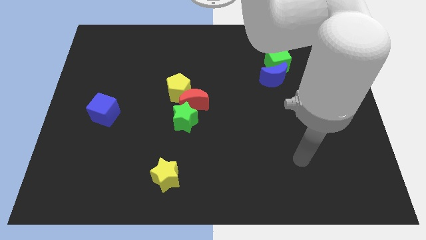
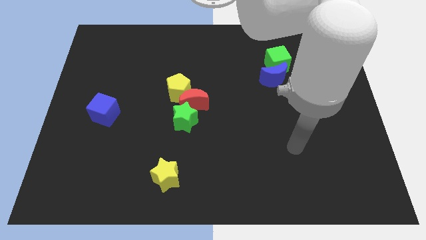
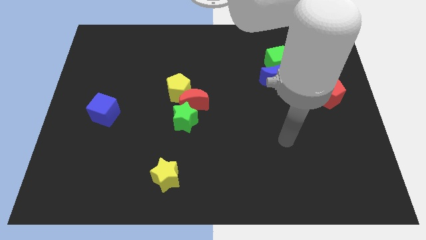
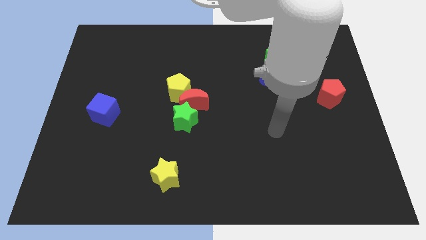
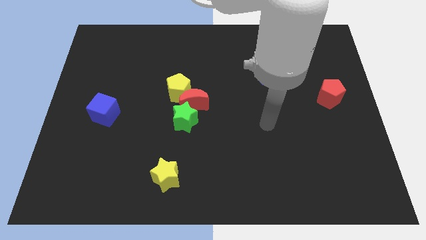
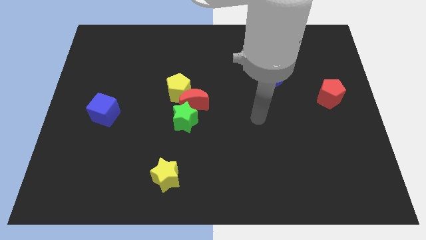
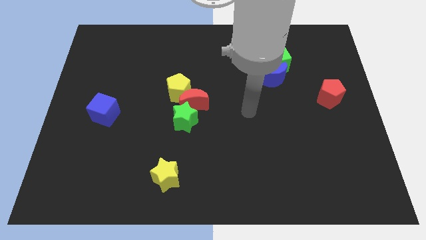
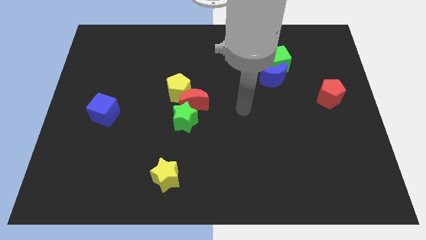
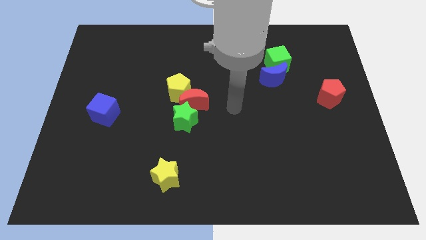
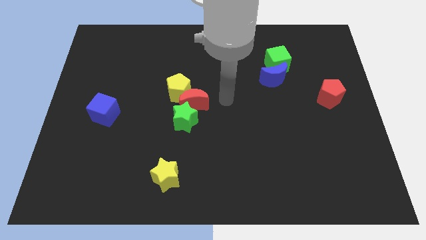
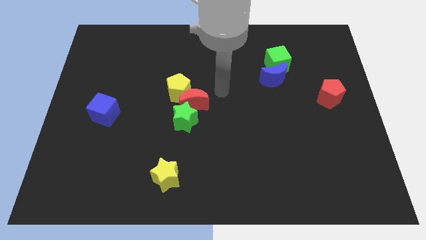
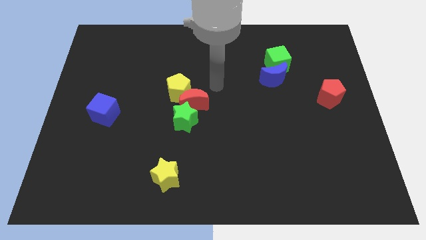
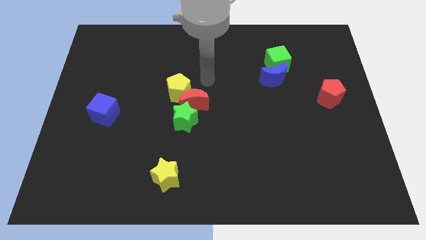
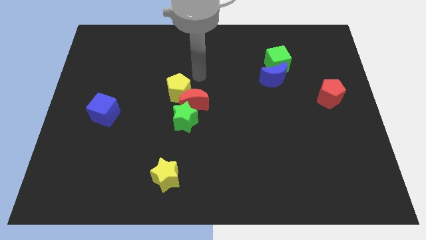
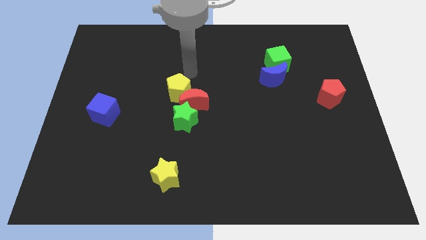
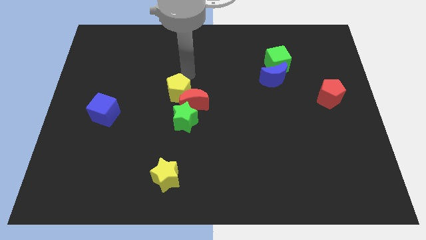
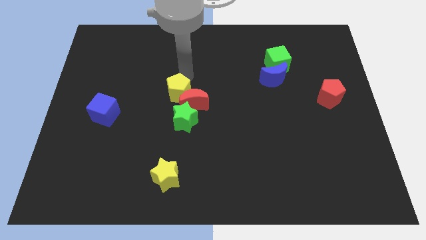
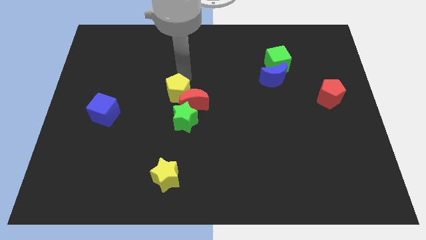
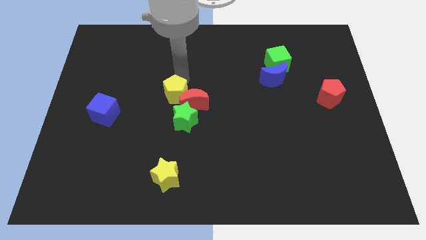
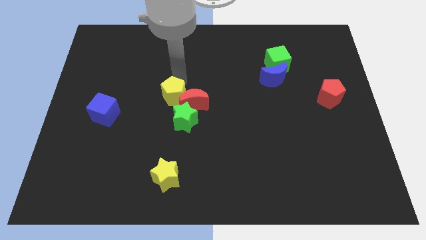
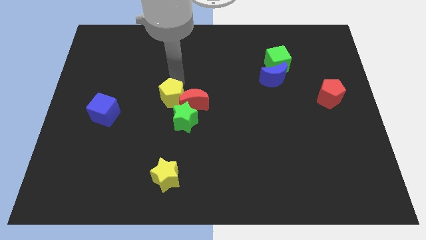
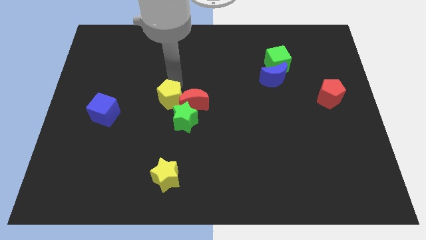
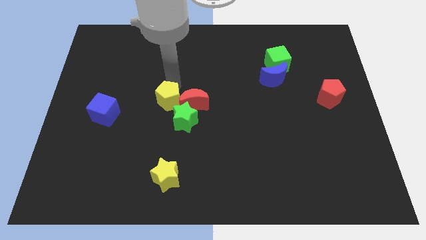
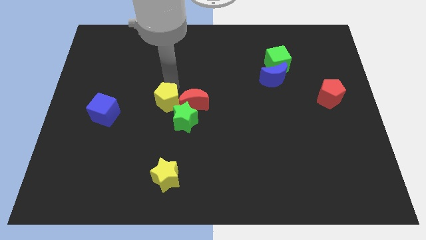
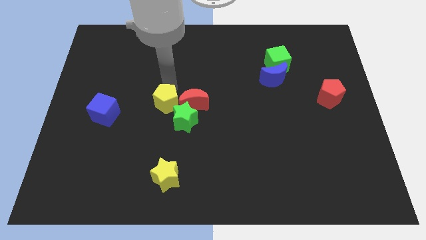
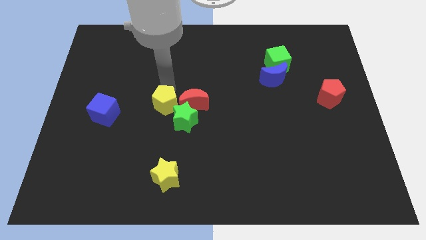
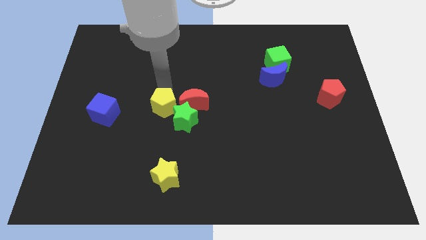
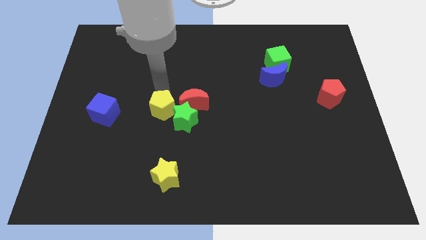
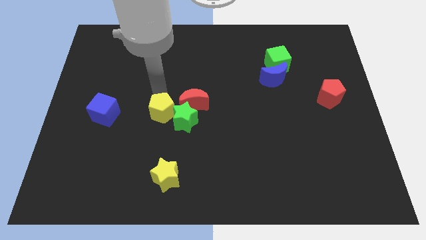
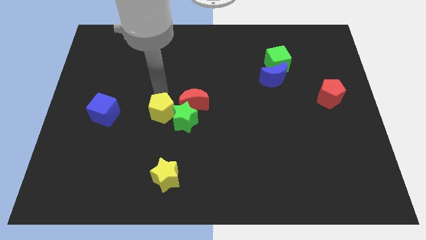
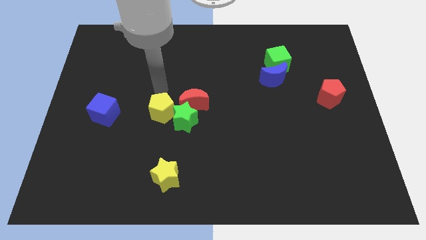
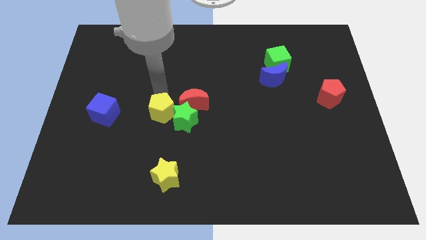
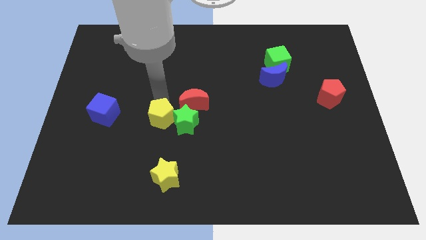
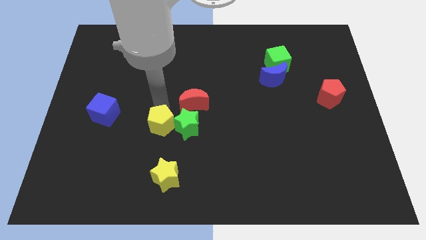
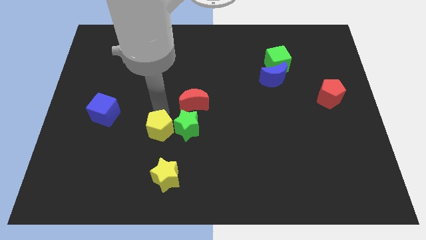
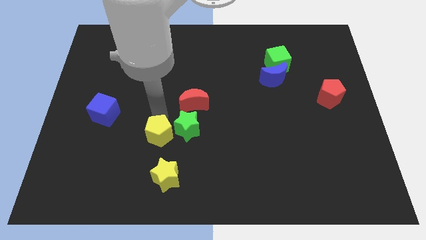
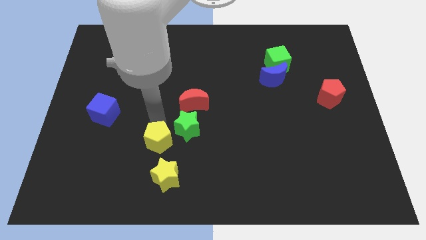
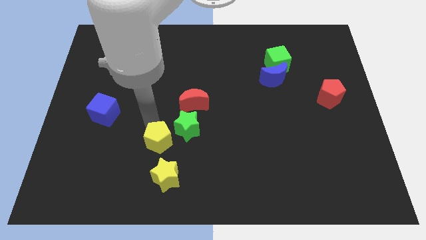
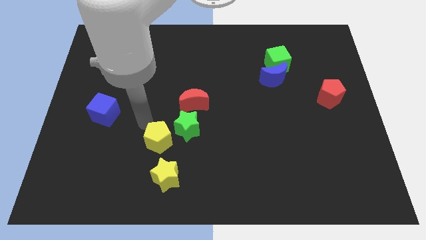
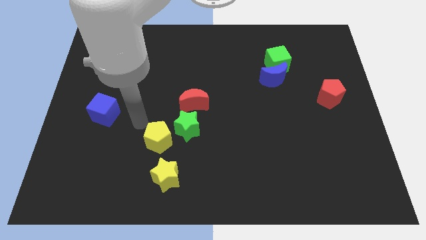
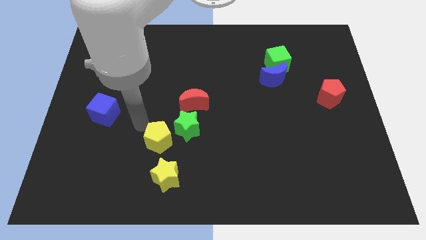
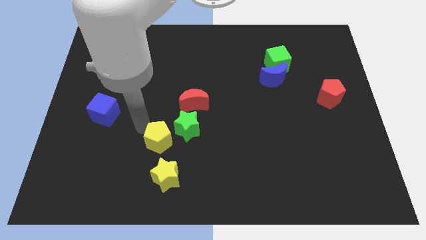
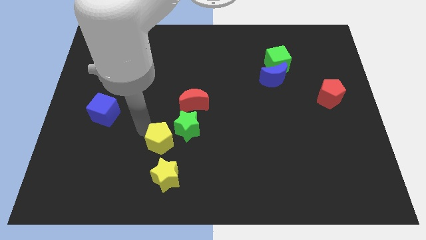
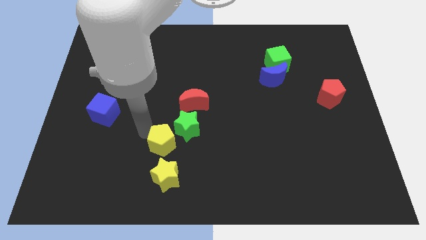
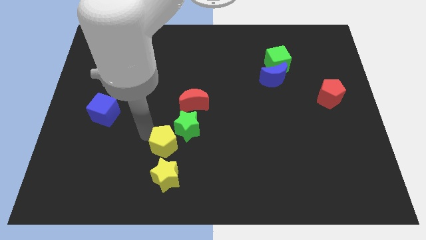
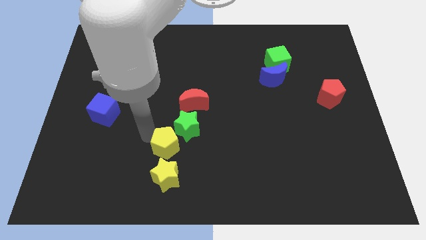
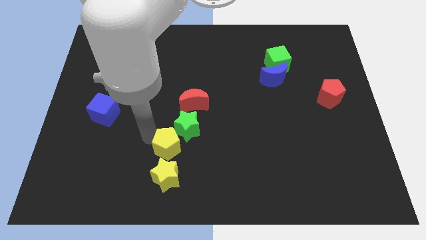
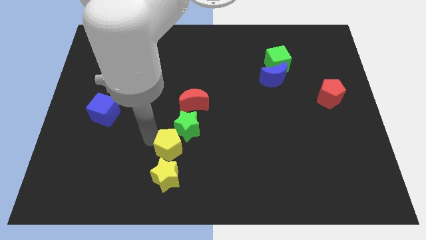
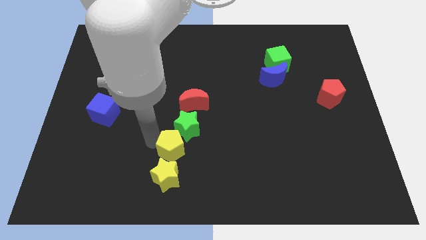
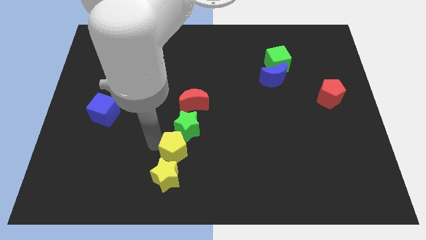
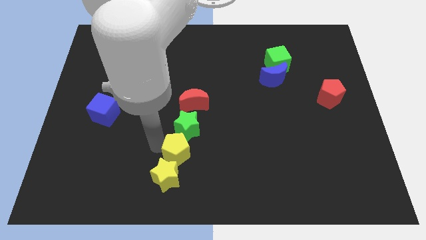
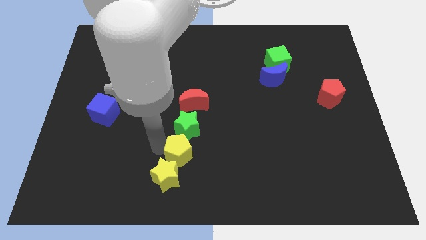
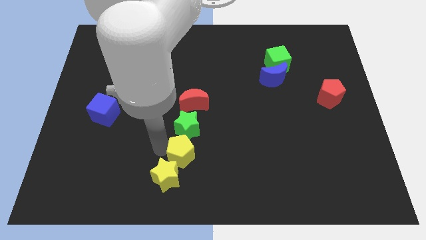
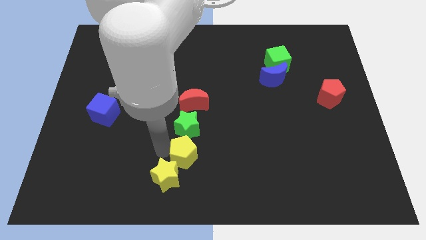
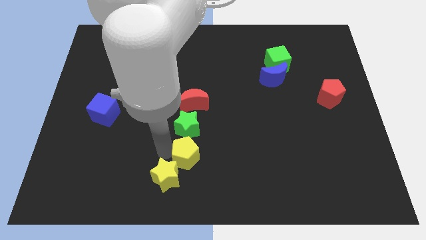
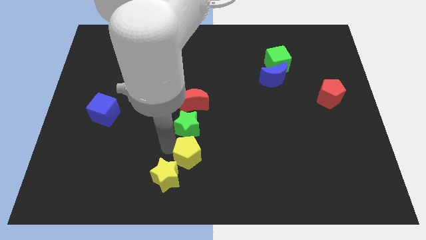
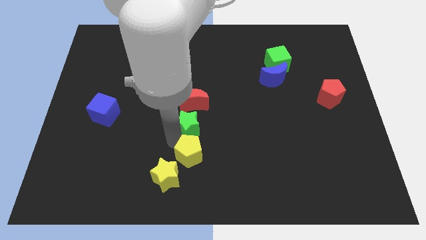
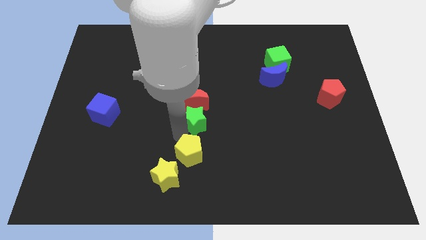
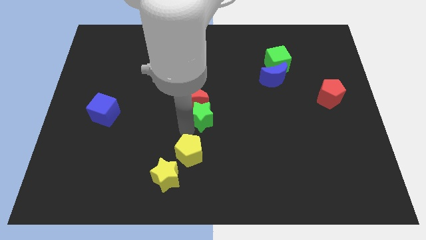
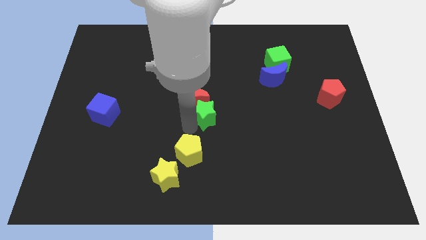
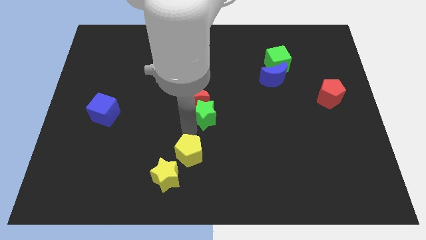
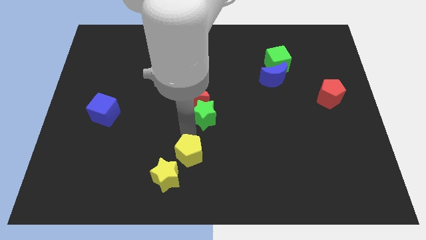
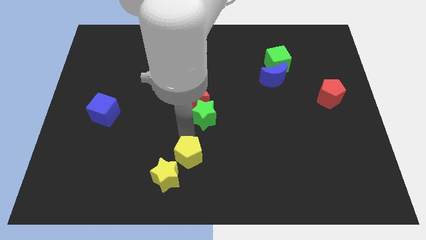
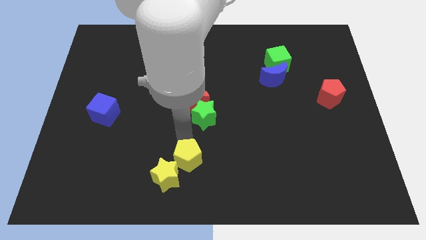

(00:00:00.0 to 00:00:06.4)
move the yellow pentagon to the bottom

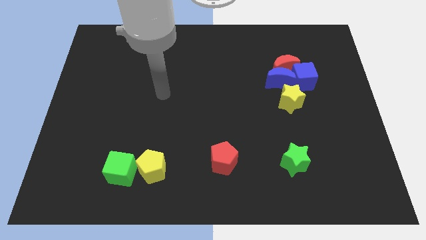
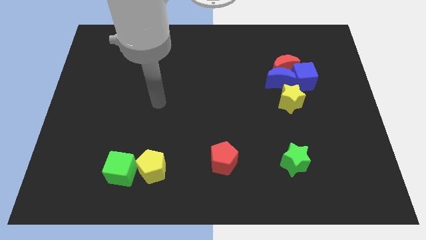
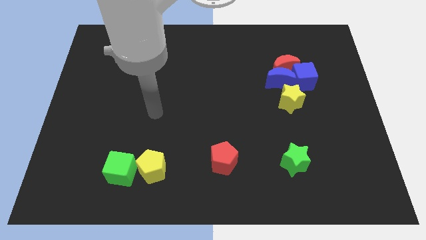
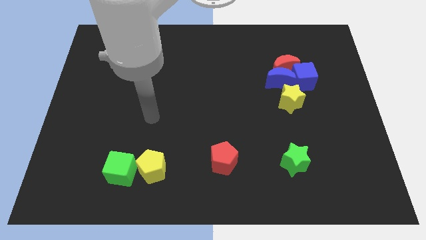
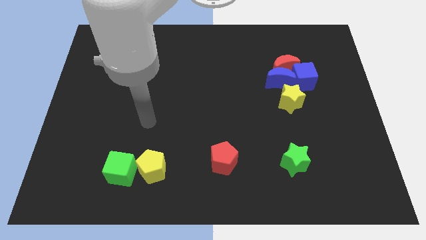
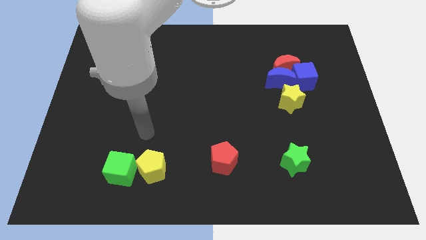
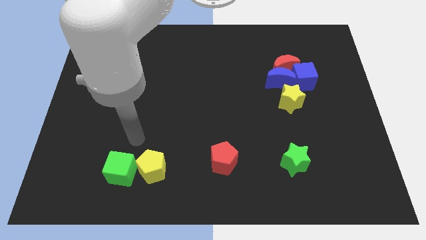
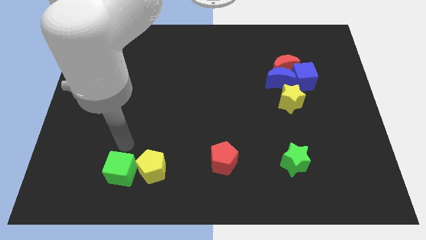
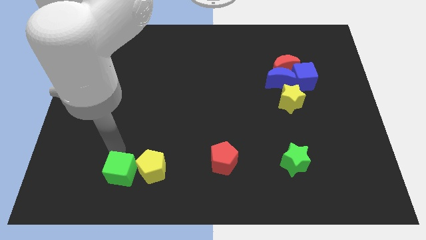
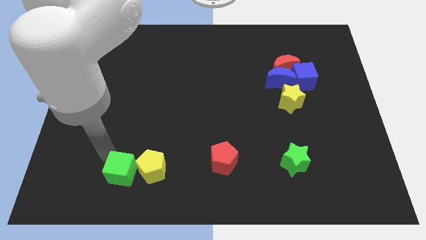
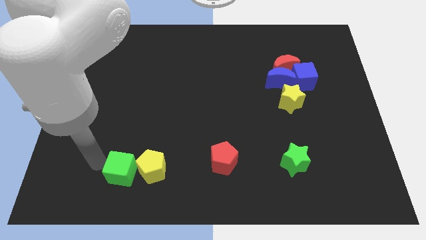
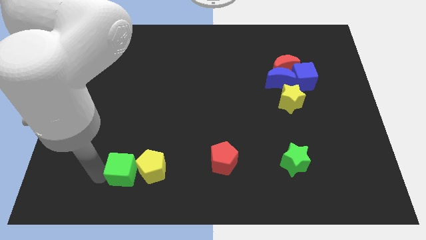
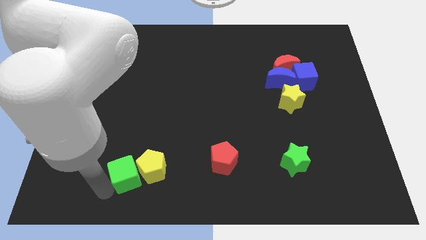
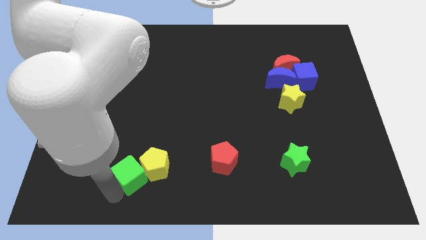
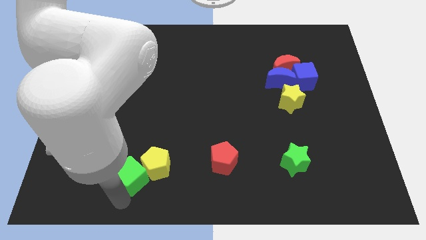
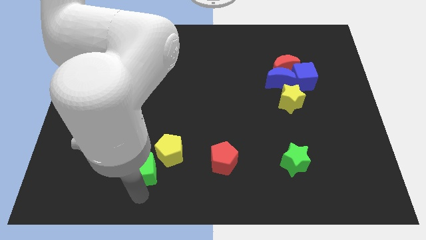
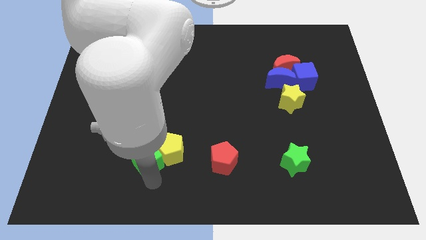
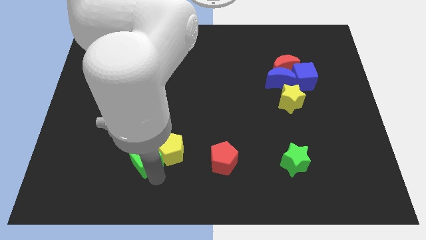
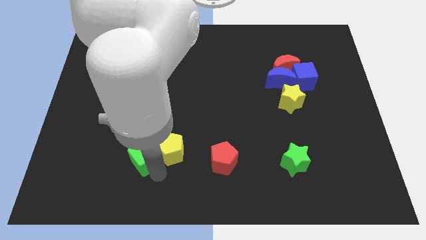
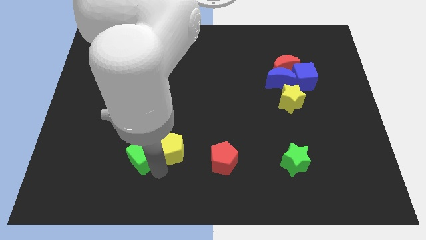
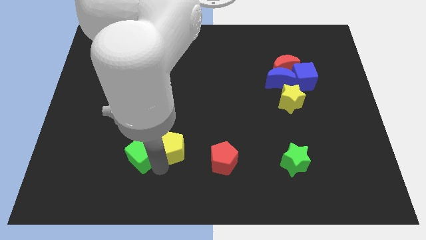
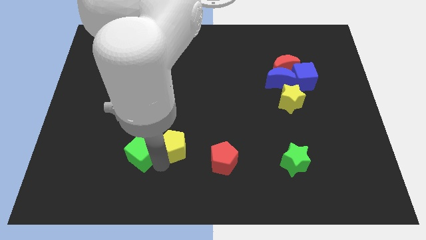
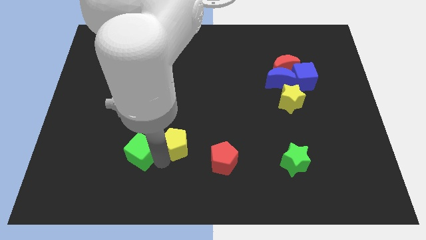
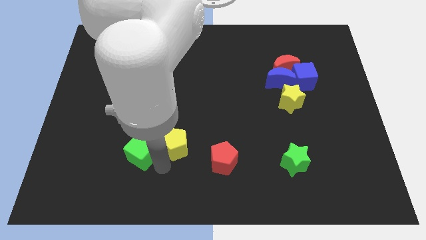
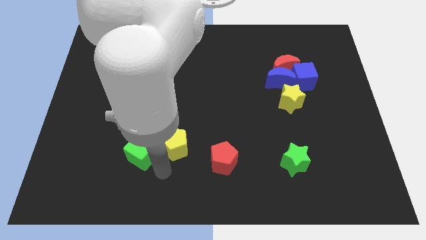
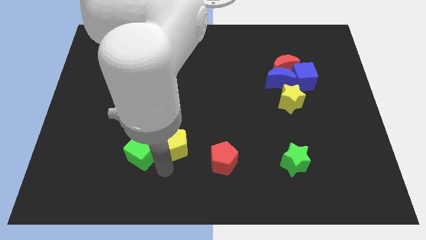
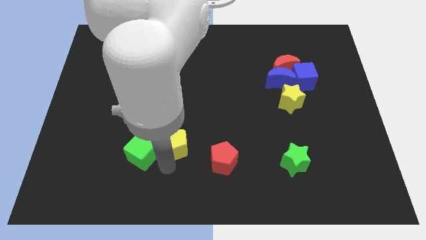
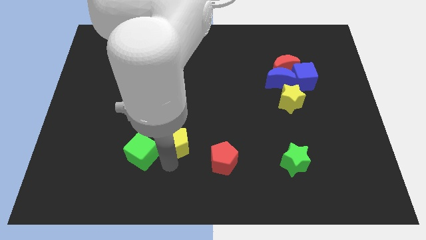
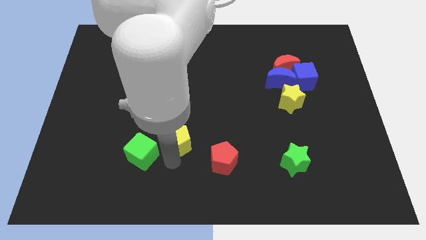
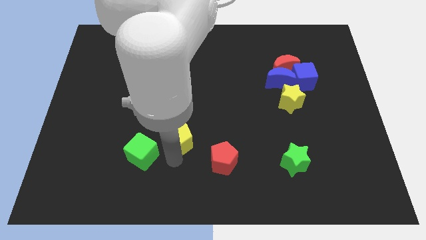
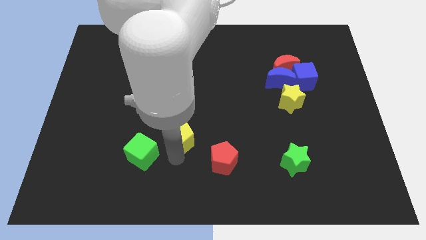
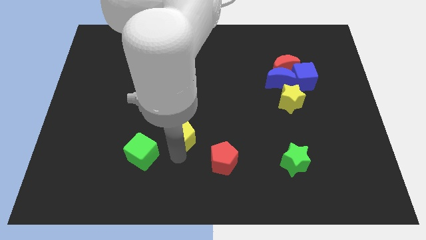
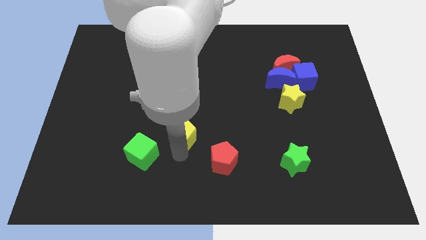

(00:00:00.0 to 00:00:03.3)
put the yellow pentagon to the center
